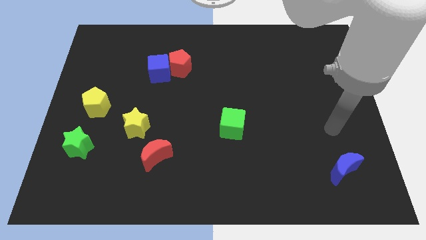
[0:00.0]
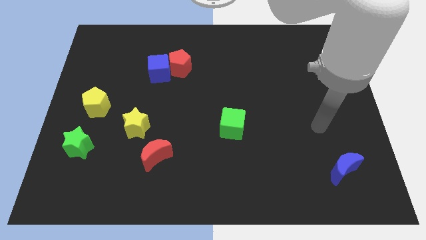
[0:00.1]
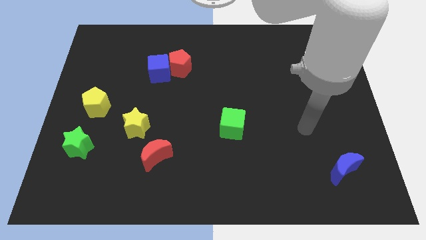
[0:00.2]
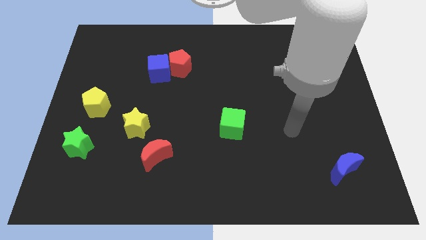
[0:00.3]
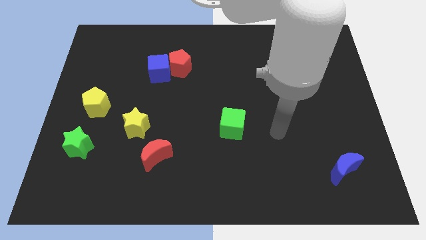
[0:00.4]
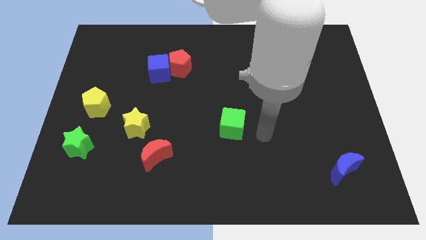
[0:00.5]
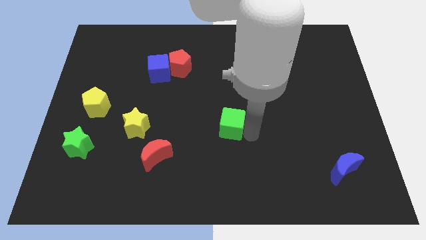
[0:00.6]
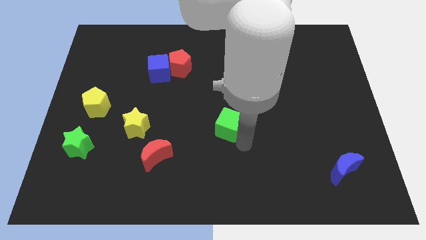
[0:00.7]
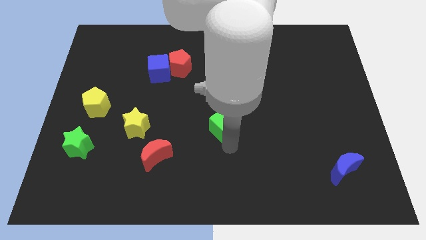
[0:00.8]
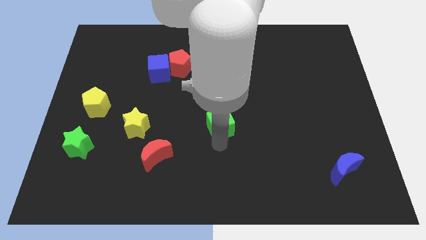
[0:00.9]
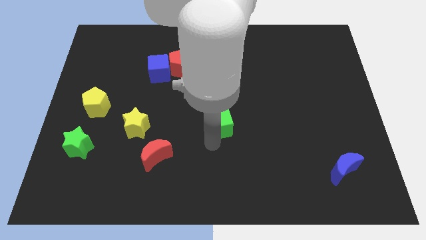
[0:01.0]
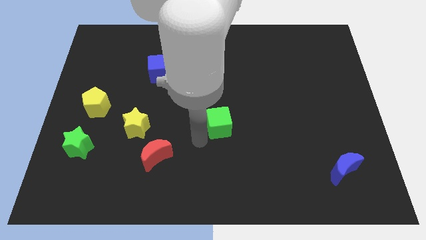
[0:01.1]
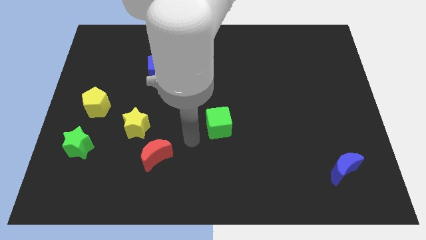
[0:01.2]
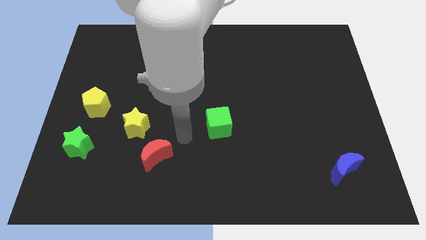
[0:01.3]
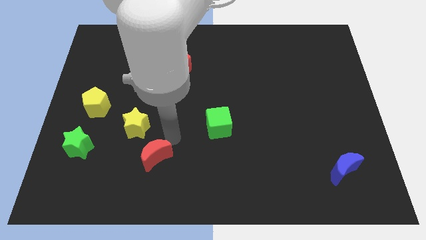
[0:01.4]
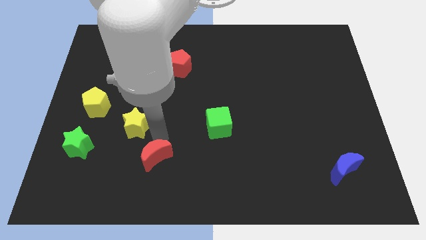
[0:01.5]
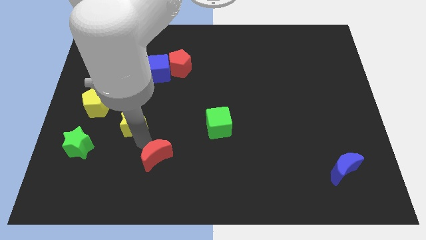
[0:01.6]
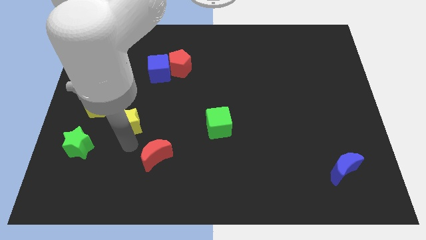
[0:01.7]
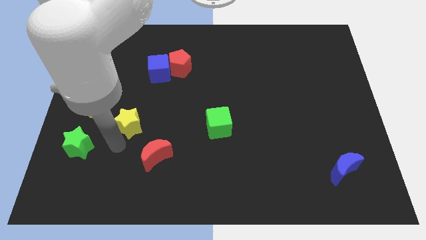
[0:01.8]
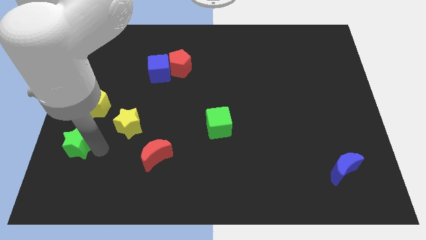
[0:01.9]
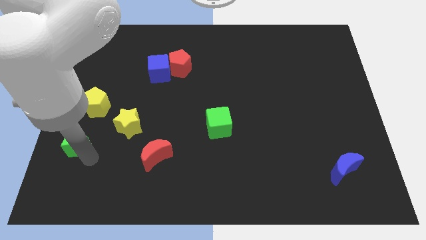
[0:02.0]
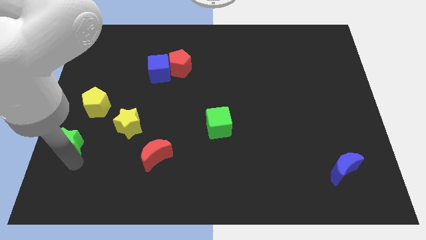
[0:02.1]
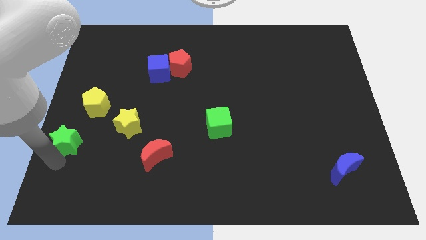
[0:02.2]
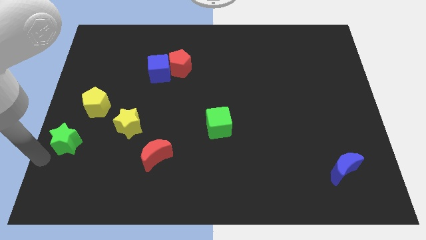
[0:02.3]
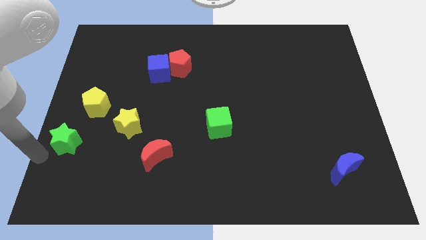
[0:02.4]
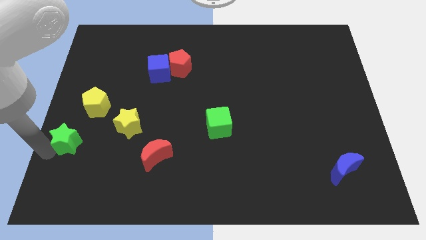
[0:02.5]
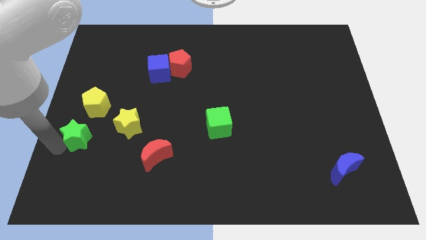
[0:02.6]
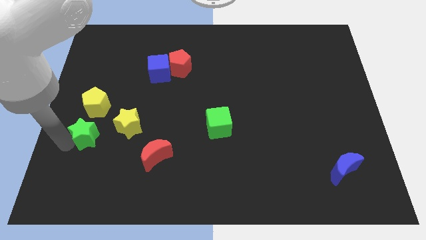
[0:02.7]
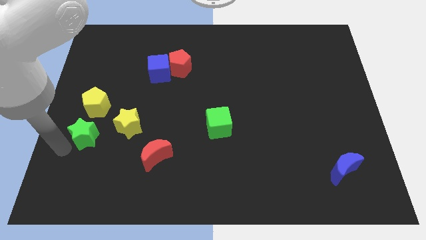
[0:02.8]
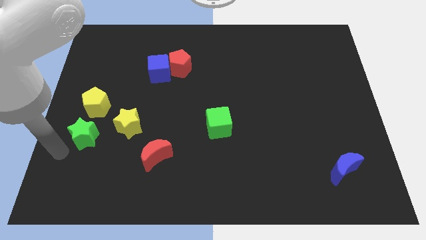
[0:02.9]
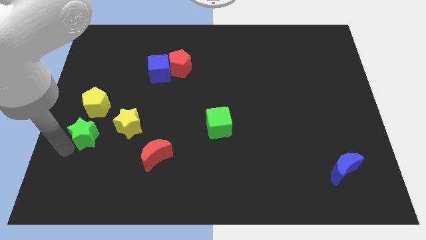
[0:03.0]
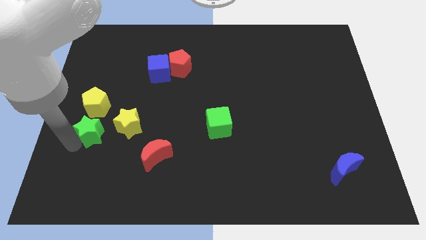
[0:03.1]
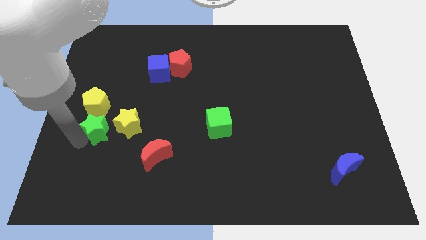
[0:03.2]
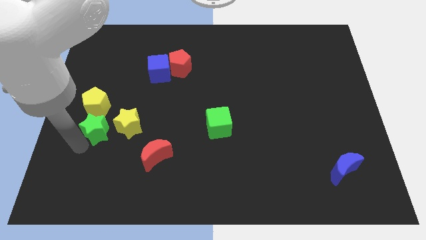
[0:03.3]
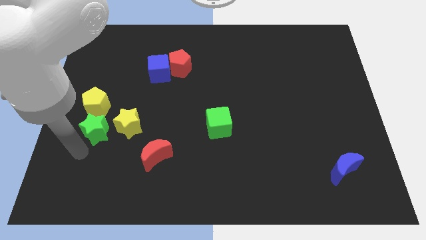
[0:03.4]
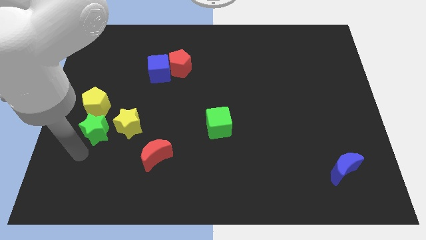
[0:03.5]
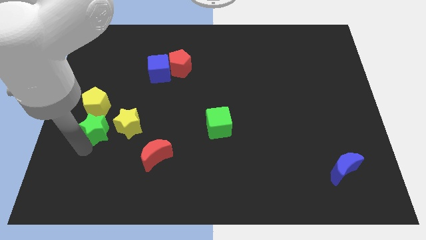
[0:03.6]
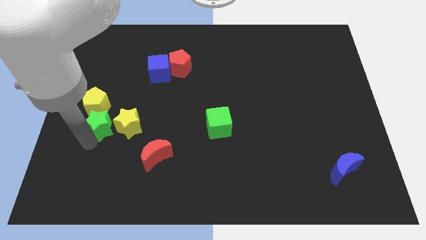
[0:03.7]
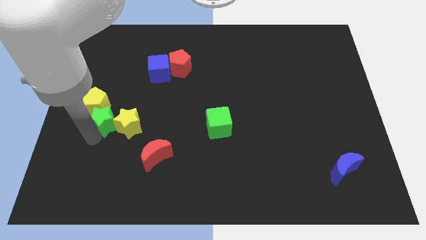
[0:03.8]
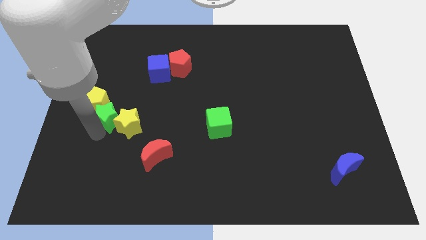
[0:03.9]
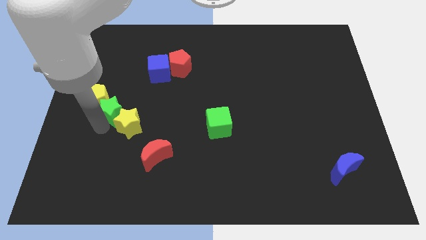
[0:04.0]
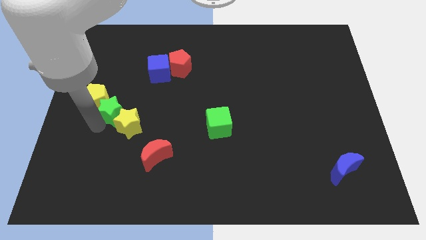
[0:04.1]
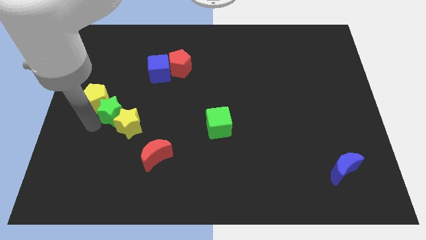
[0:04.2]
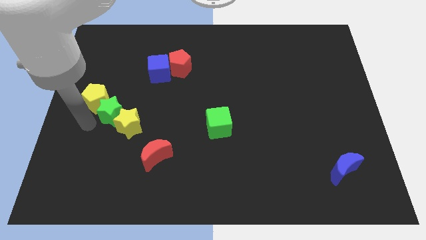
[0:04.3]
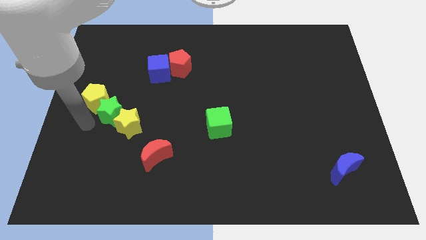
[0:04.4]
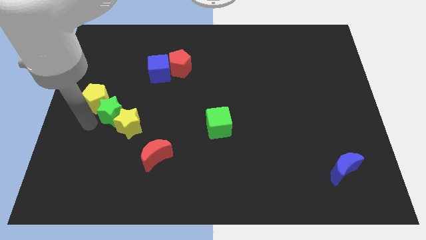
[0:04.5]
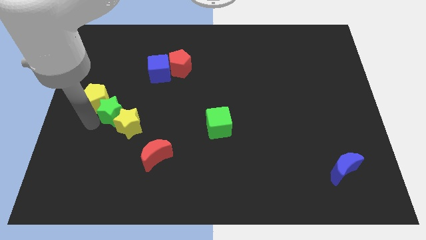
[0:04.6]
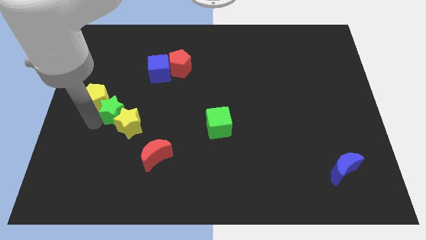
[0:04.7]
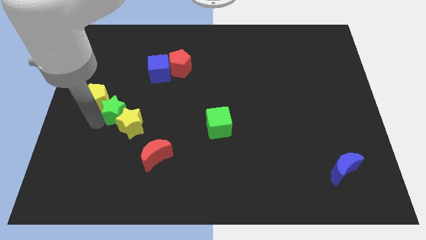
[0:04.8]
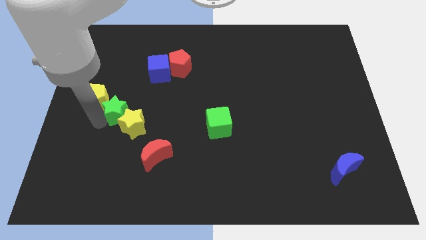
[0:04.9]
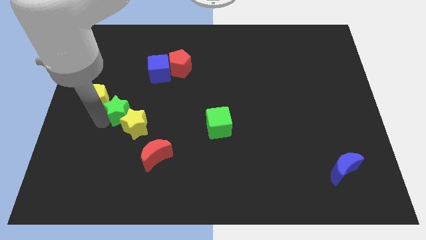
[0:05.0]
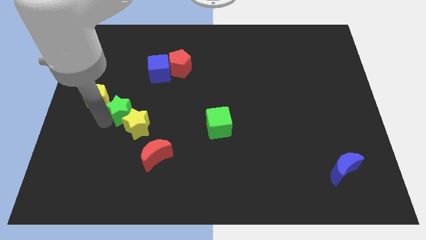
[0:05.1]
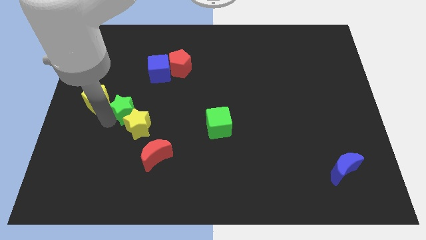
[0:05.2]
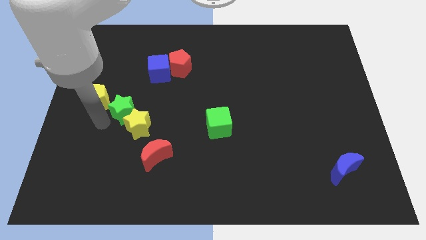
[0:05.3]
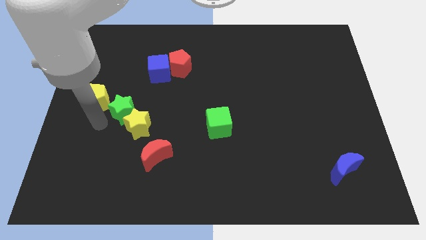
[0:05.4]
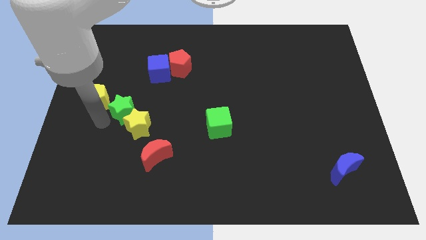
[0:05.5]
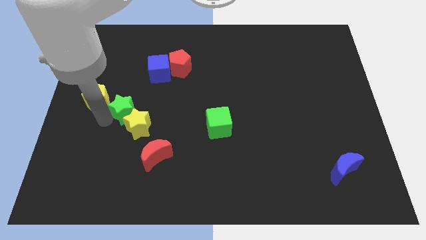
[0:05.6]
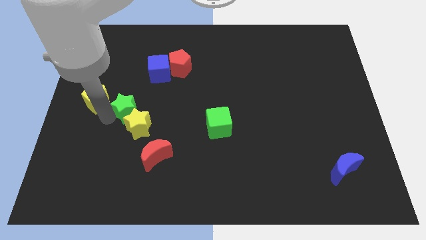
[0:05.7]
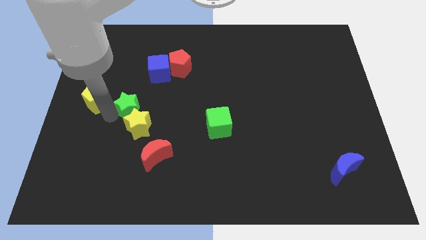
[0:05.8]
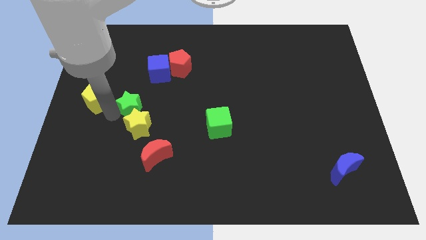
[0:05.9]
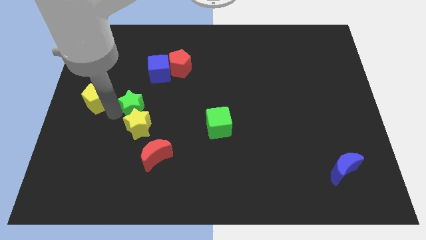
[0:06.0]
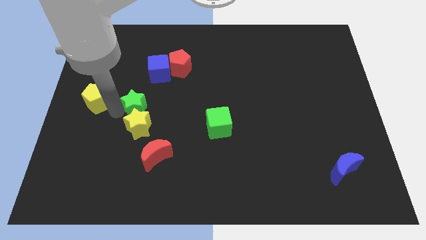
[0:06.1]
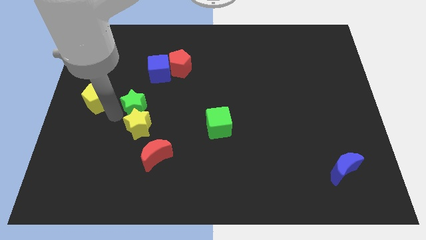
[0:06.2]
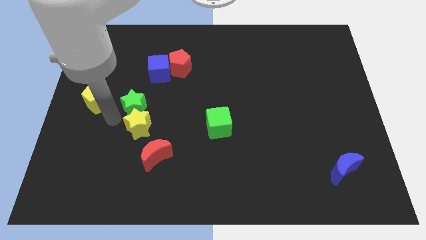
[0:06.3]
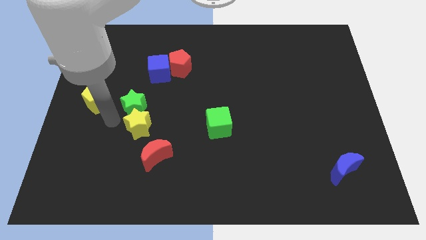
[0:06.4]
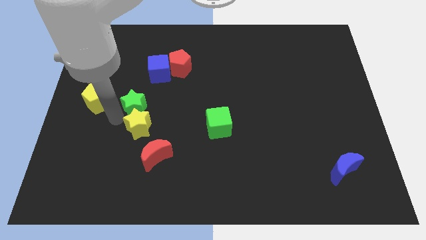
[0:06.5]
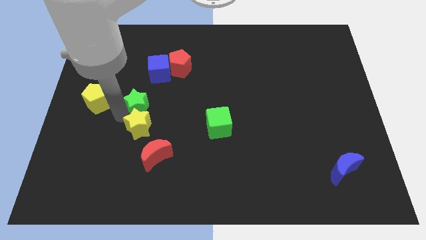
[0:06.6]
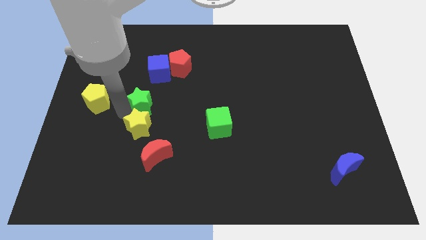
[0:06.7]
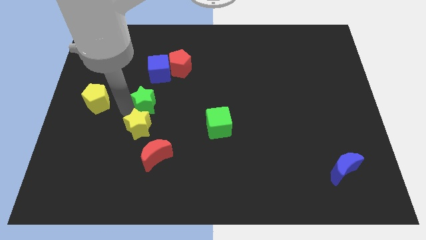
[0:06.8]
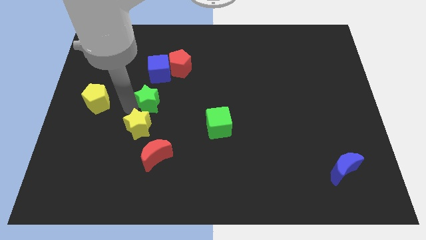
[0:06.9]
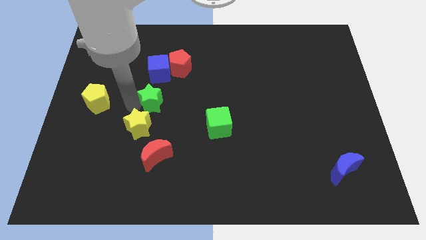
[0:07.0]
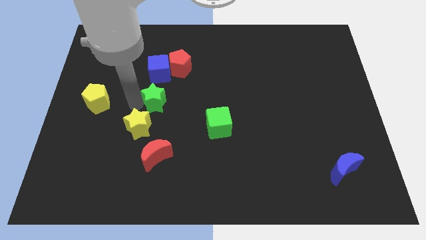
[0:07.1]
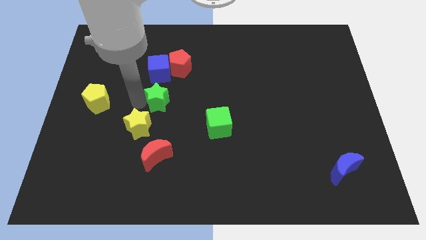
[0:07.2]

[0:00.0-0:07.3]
push the green star to the bottom side of the red pentagon
